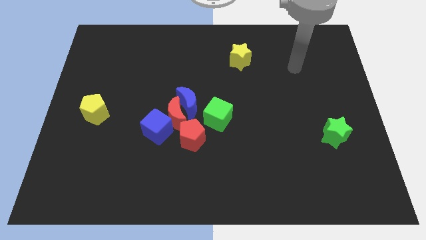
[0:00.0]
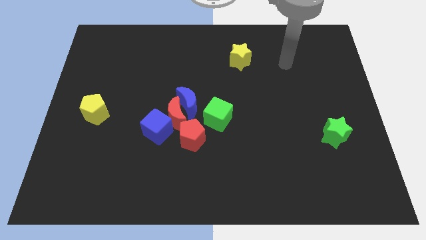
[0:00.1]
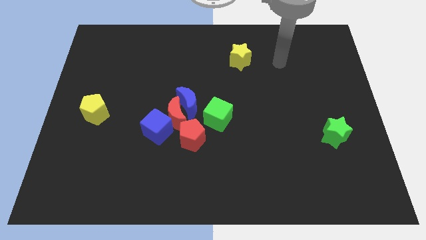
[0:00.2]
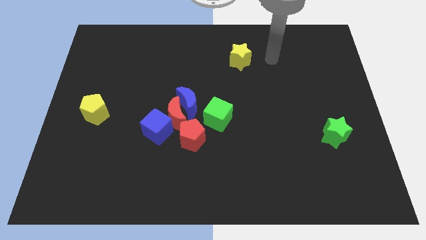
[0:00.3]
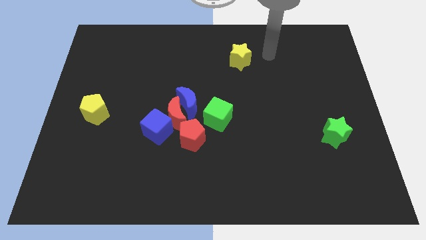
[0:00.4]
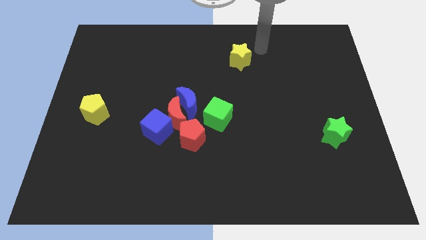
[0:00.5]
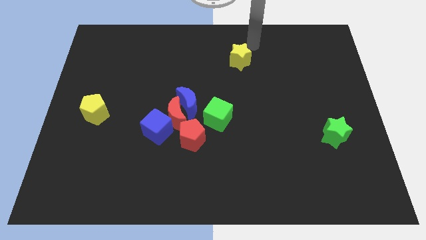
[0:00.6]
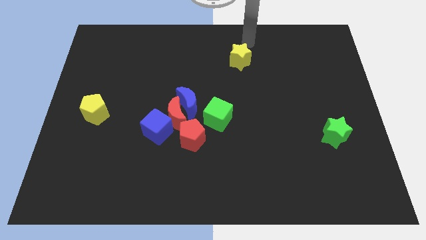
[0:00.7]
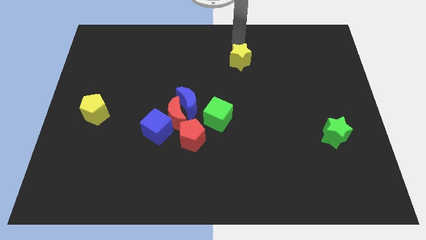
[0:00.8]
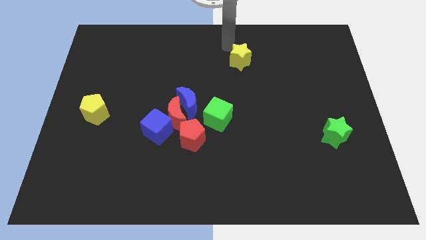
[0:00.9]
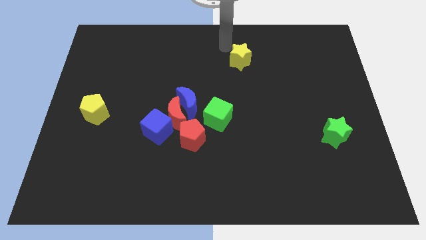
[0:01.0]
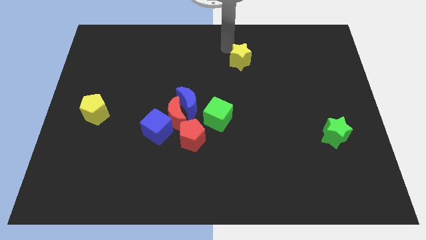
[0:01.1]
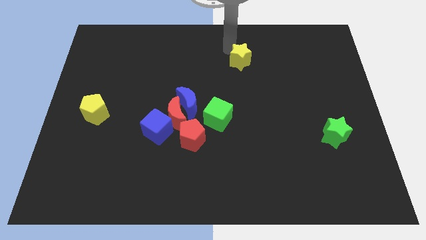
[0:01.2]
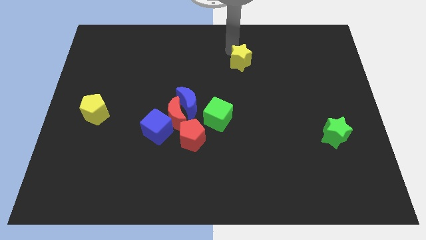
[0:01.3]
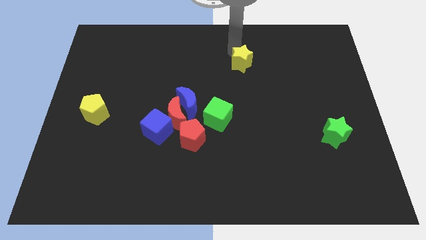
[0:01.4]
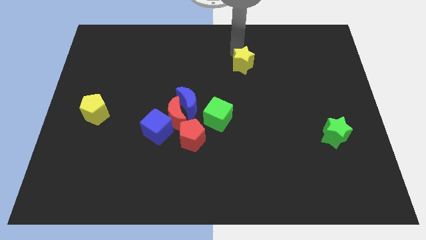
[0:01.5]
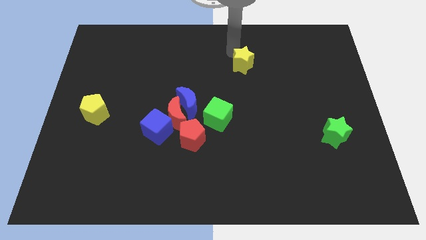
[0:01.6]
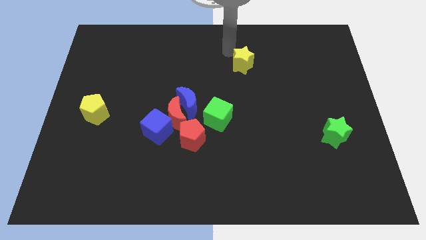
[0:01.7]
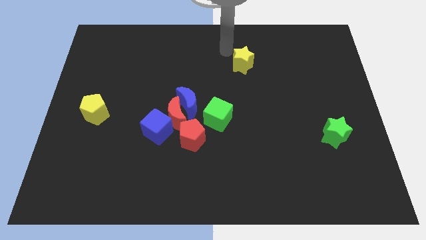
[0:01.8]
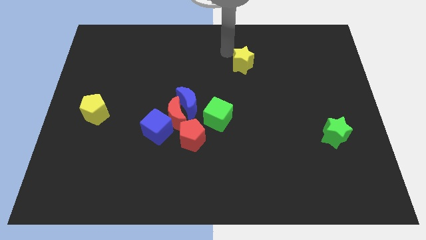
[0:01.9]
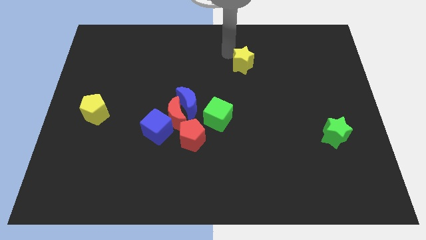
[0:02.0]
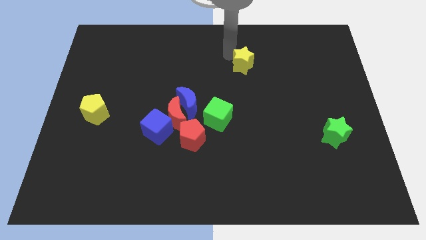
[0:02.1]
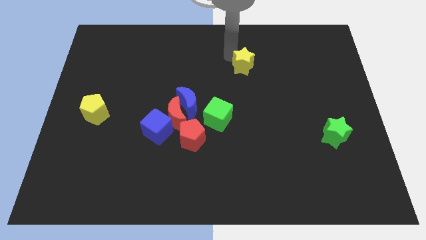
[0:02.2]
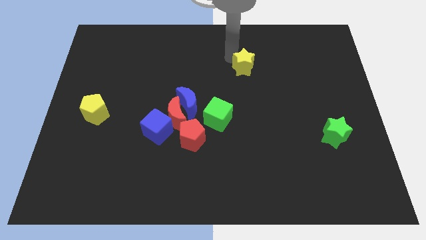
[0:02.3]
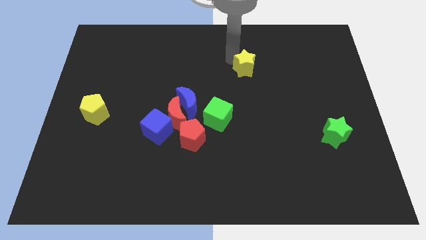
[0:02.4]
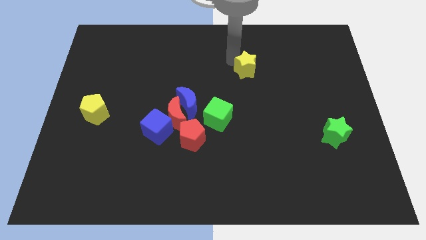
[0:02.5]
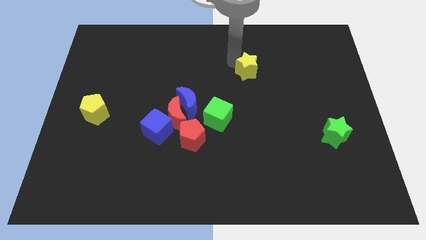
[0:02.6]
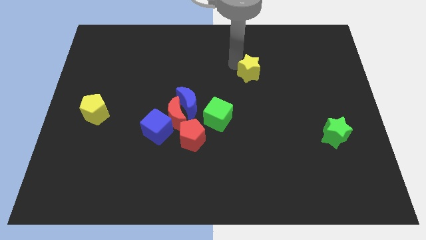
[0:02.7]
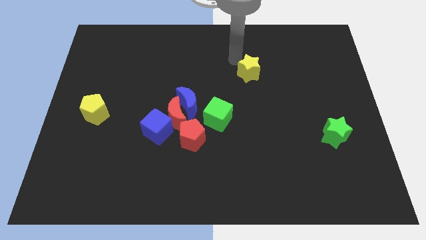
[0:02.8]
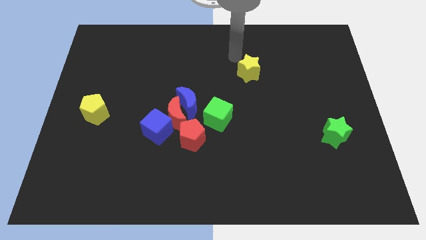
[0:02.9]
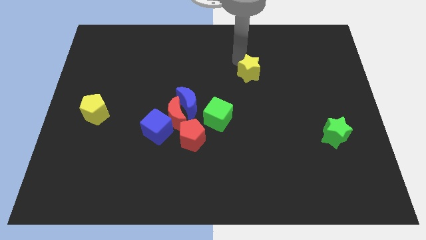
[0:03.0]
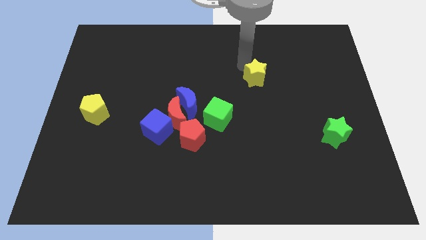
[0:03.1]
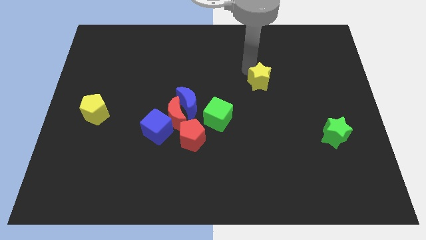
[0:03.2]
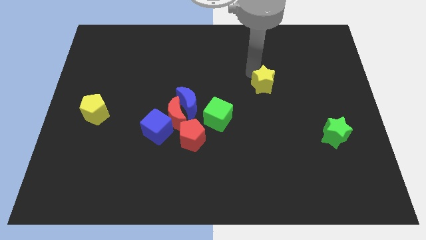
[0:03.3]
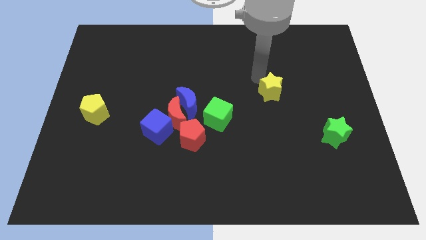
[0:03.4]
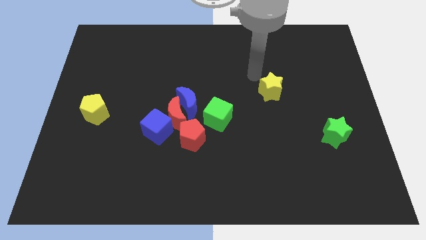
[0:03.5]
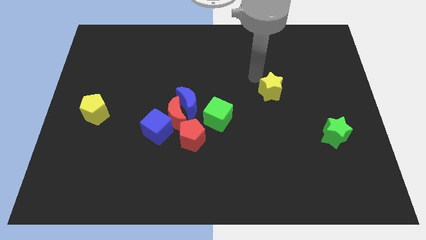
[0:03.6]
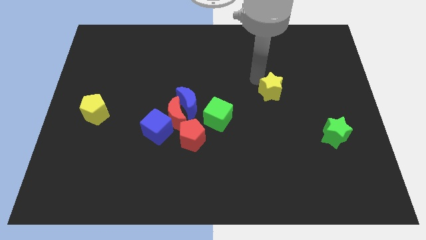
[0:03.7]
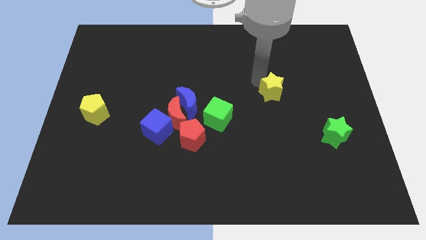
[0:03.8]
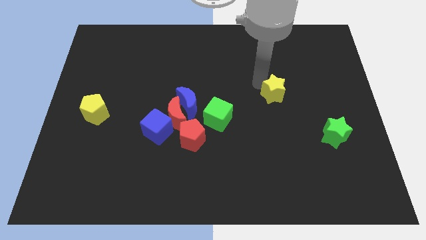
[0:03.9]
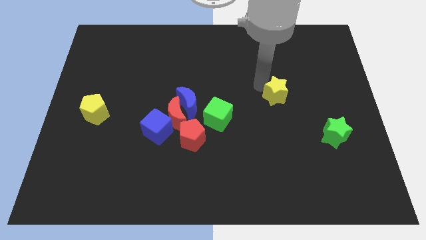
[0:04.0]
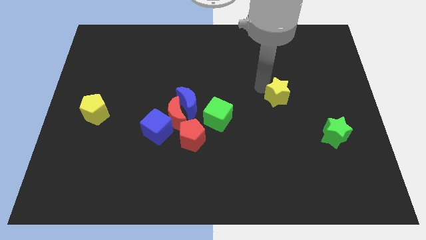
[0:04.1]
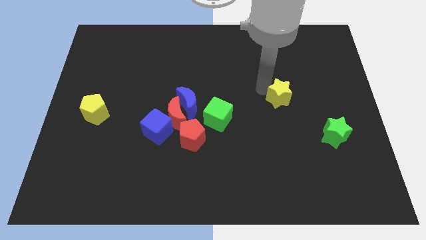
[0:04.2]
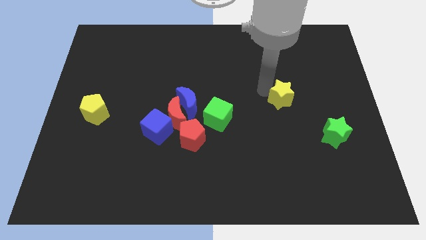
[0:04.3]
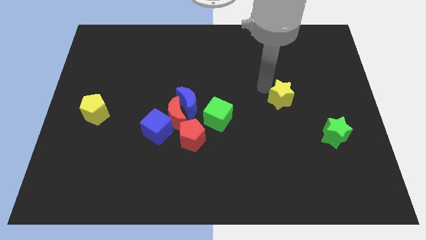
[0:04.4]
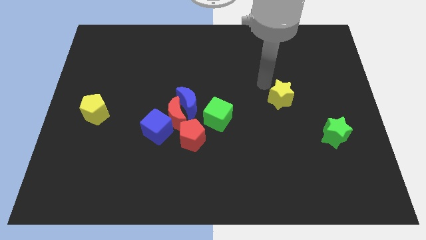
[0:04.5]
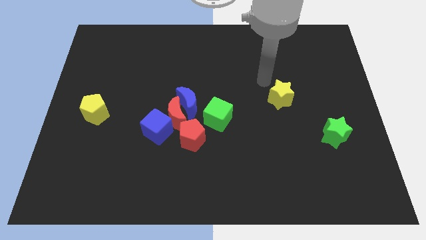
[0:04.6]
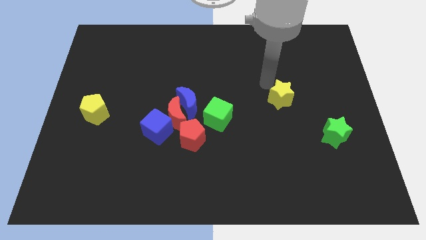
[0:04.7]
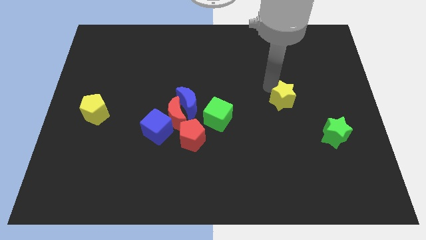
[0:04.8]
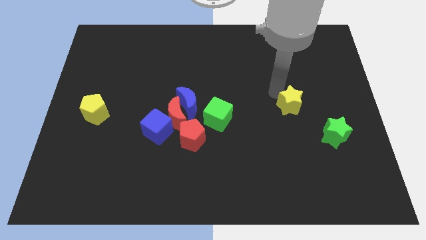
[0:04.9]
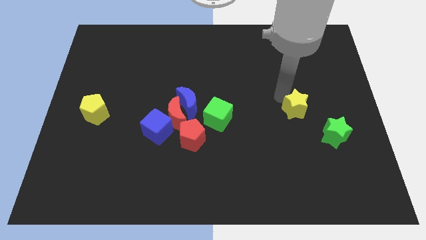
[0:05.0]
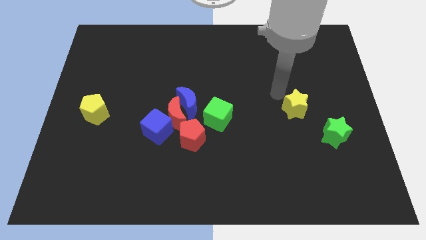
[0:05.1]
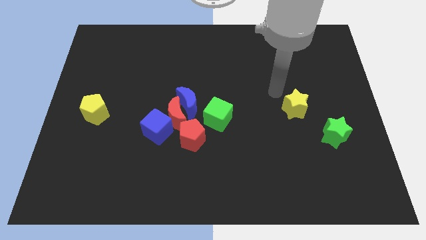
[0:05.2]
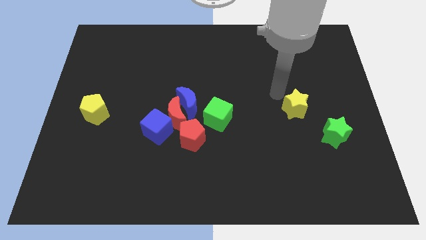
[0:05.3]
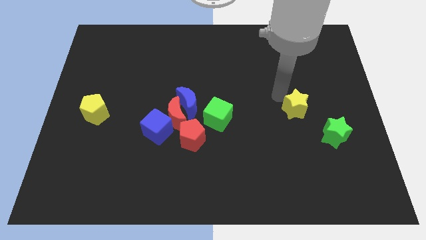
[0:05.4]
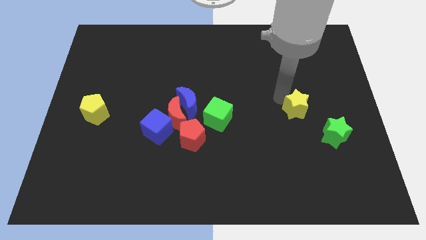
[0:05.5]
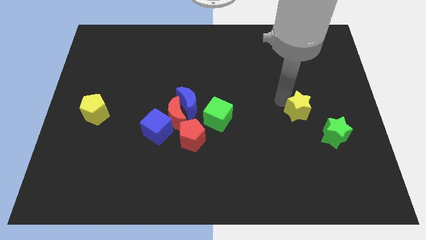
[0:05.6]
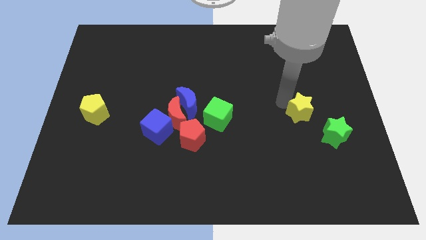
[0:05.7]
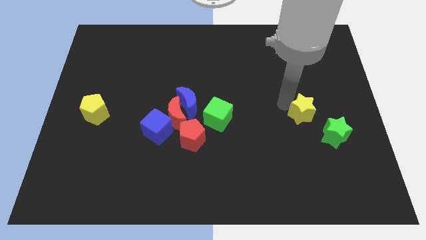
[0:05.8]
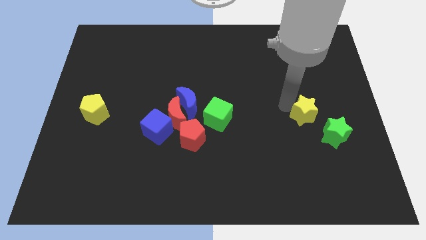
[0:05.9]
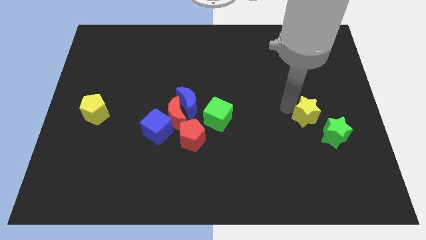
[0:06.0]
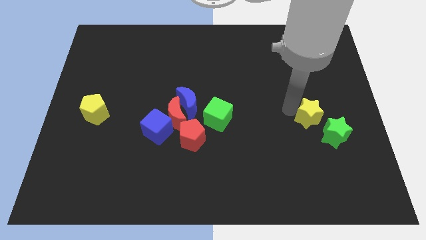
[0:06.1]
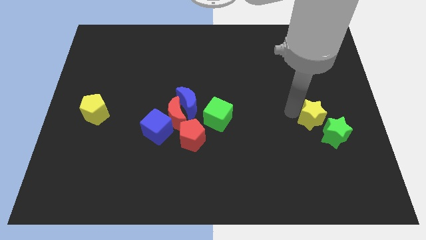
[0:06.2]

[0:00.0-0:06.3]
slide the yellow star close to the green star

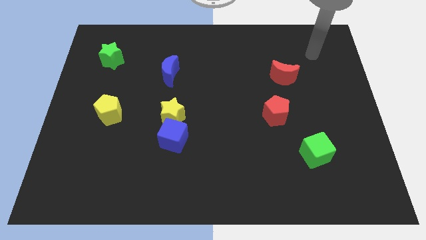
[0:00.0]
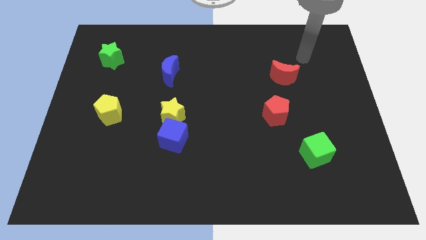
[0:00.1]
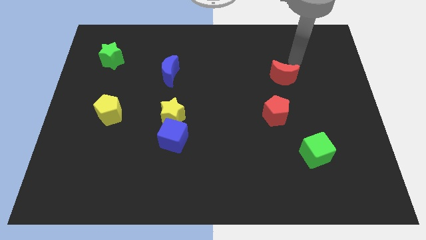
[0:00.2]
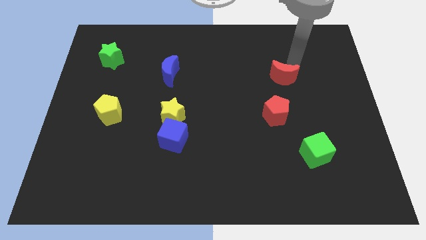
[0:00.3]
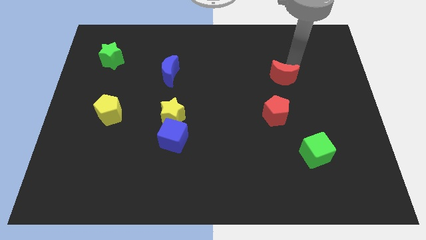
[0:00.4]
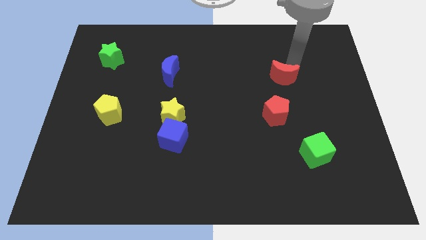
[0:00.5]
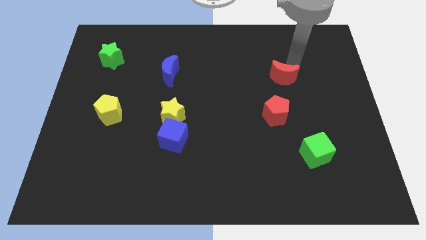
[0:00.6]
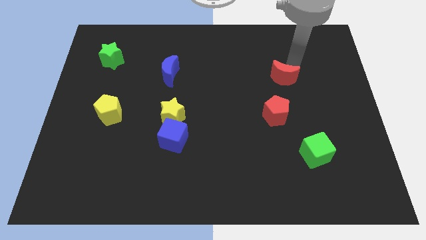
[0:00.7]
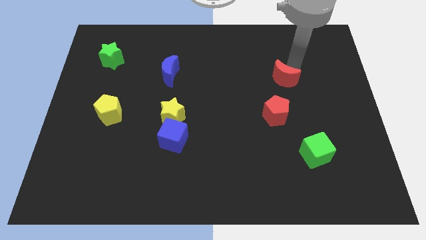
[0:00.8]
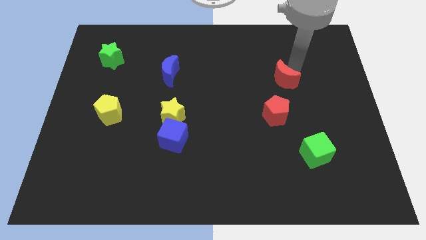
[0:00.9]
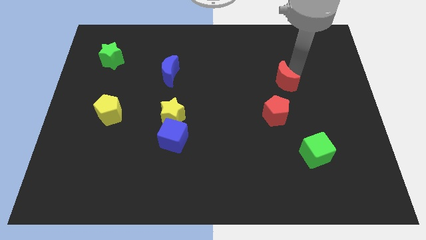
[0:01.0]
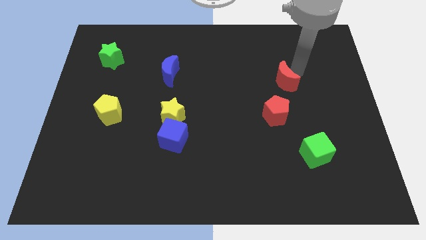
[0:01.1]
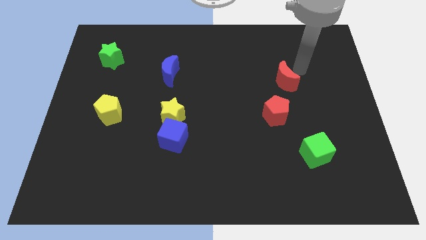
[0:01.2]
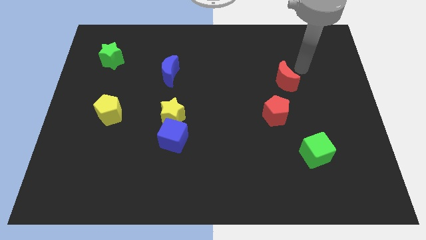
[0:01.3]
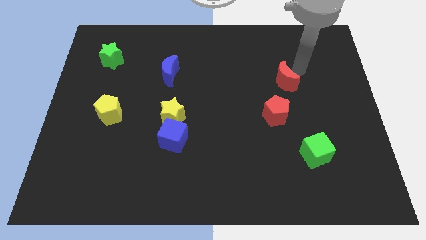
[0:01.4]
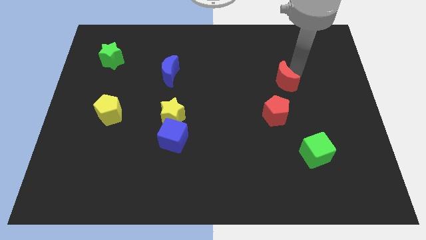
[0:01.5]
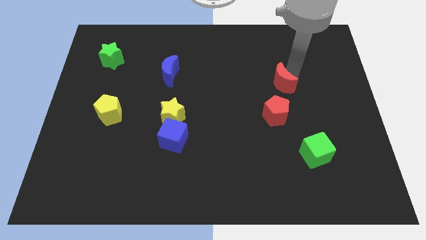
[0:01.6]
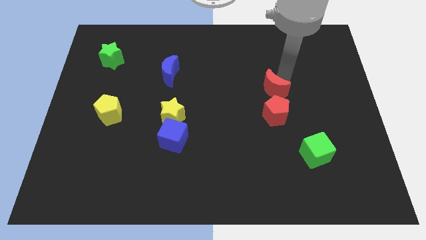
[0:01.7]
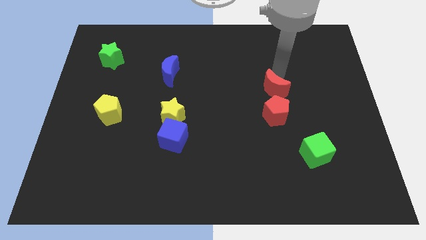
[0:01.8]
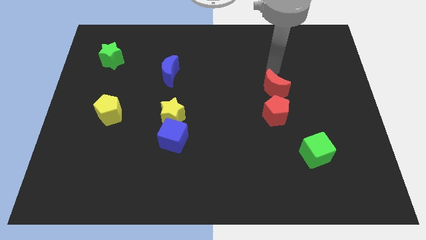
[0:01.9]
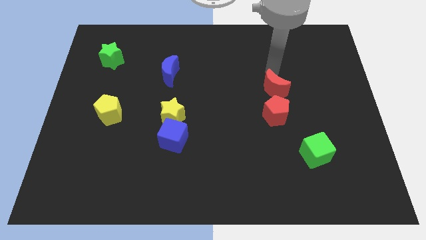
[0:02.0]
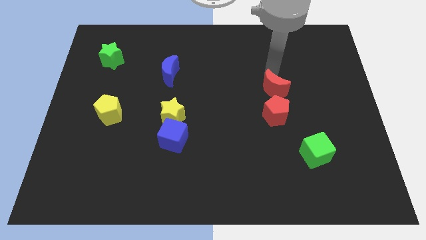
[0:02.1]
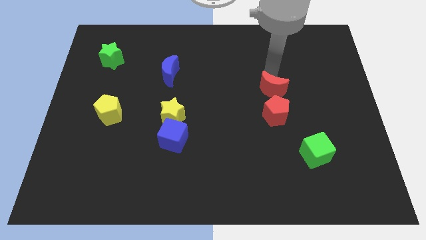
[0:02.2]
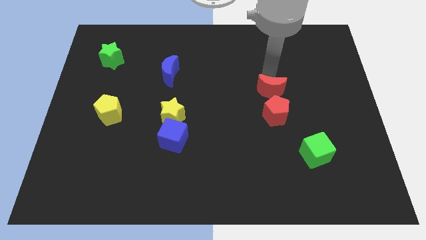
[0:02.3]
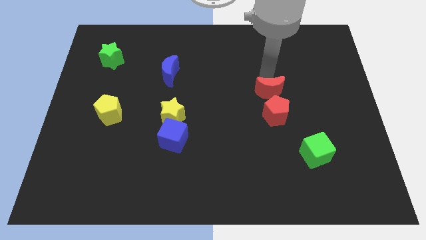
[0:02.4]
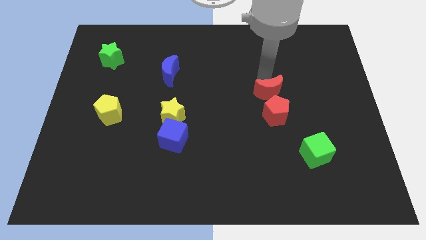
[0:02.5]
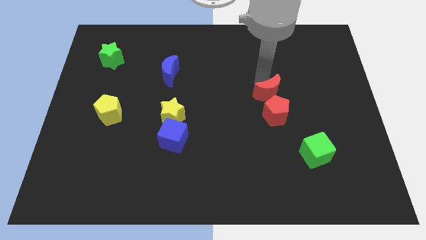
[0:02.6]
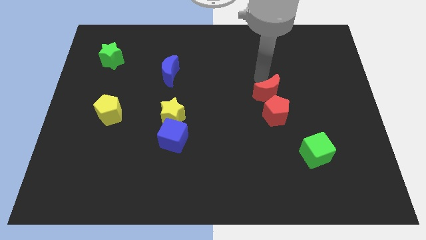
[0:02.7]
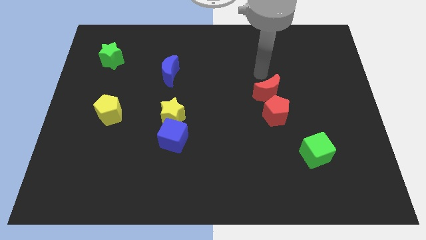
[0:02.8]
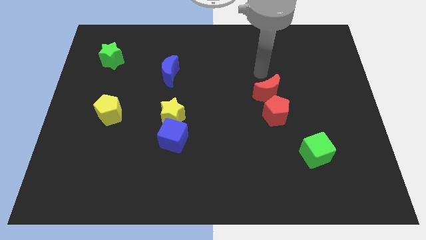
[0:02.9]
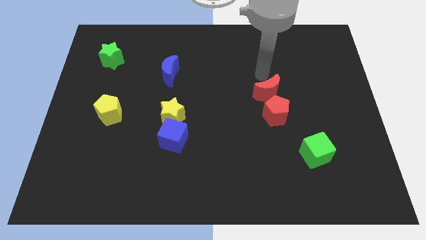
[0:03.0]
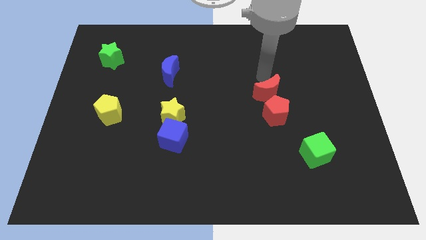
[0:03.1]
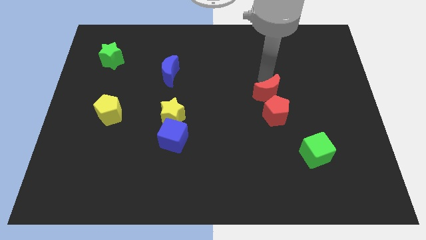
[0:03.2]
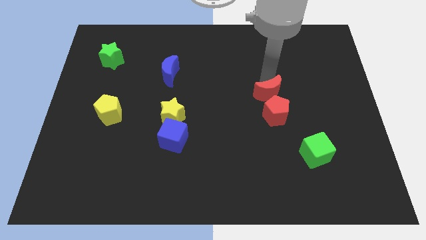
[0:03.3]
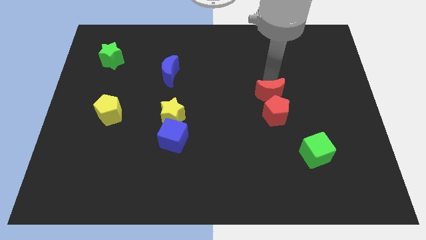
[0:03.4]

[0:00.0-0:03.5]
move the red moon to the red pentagon
